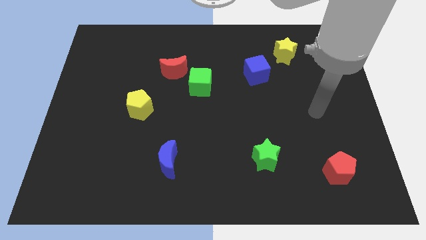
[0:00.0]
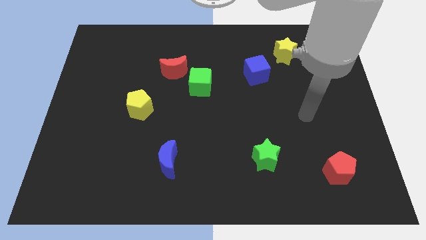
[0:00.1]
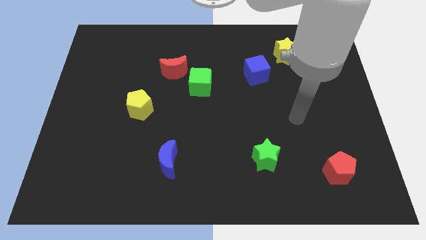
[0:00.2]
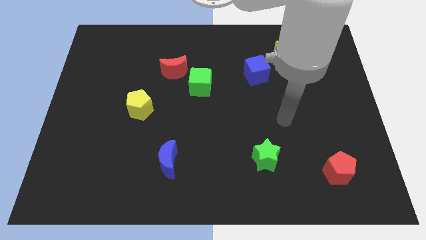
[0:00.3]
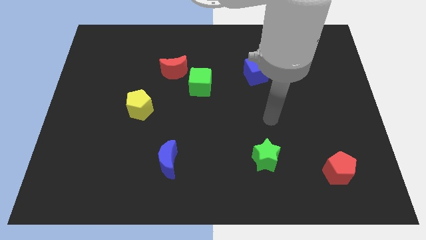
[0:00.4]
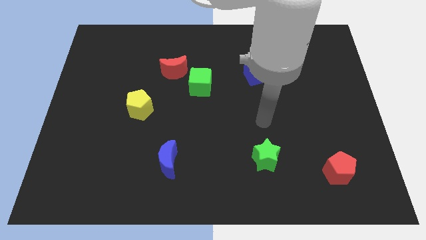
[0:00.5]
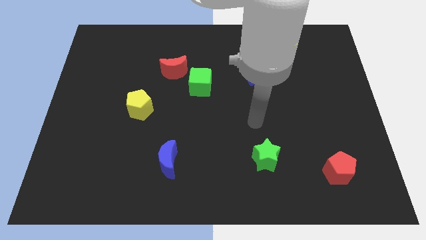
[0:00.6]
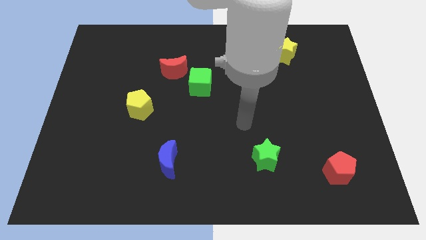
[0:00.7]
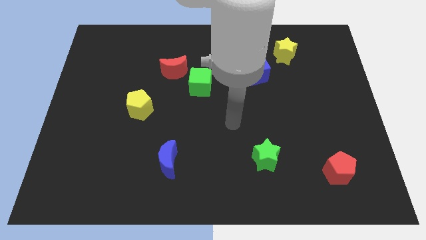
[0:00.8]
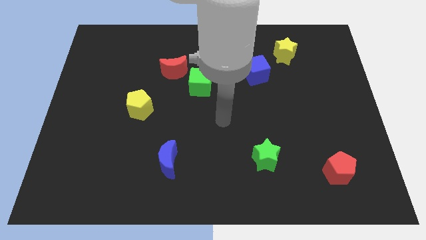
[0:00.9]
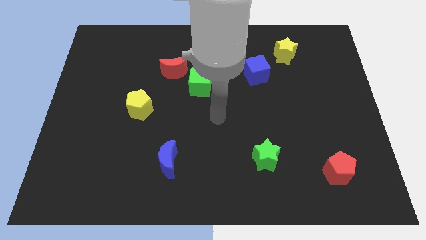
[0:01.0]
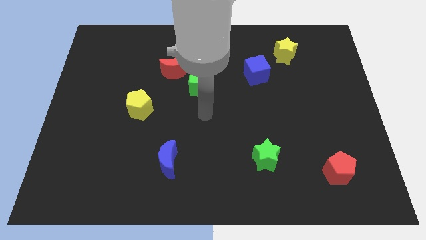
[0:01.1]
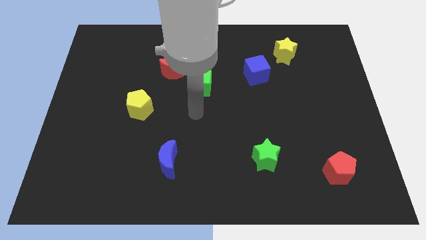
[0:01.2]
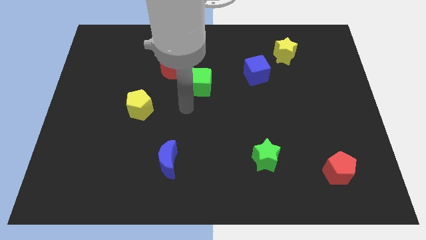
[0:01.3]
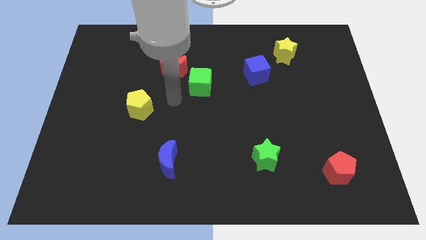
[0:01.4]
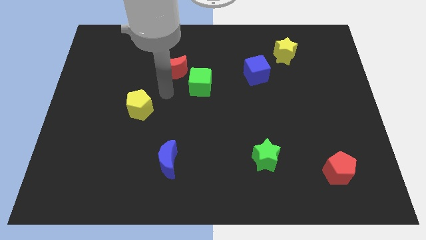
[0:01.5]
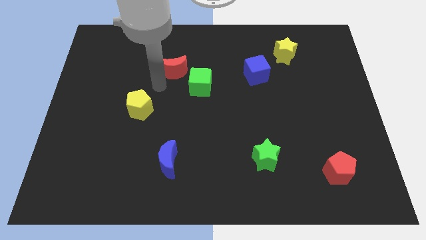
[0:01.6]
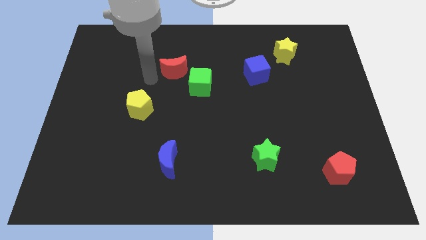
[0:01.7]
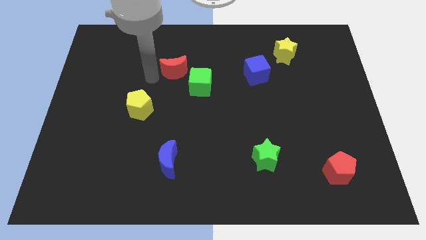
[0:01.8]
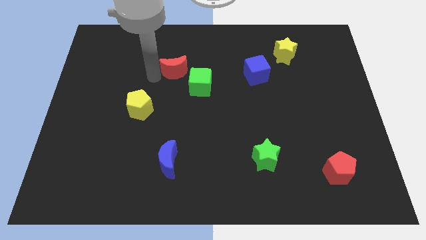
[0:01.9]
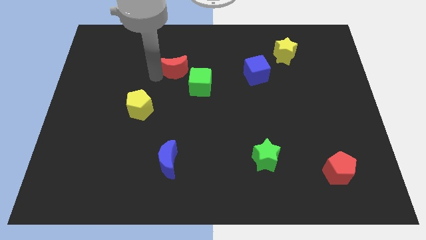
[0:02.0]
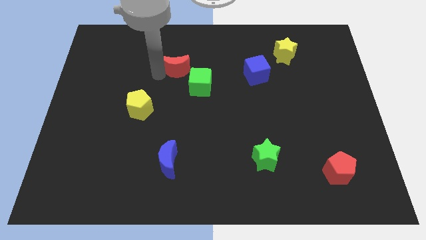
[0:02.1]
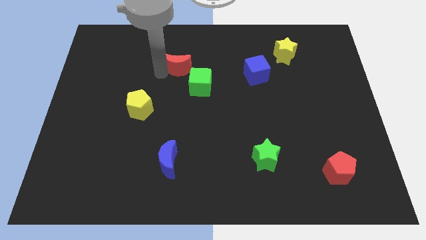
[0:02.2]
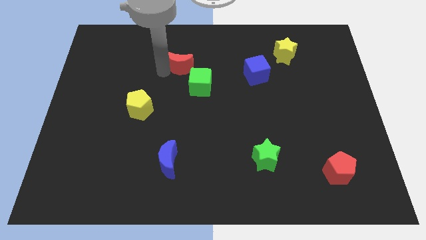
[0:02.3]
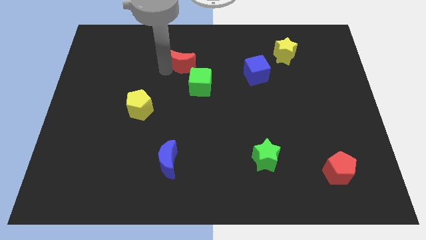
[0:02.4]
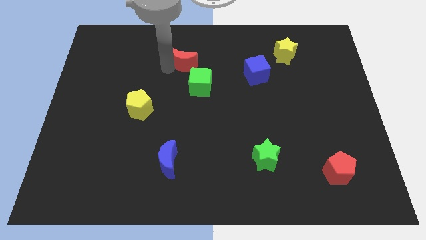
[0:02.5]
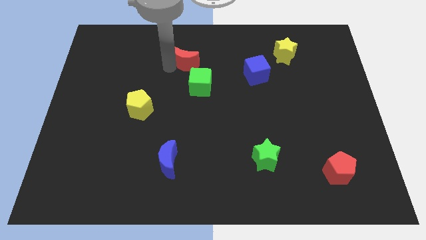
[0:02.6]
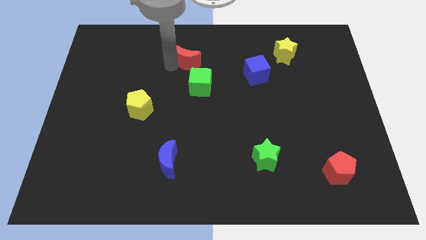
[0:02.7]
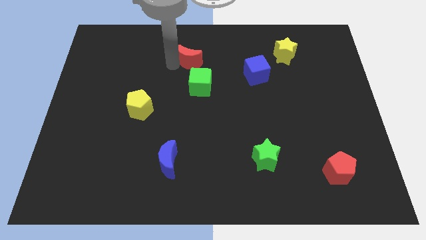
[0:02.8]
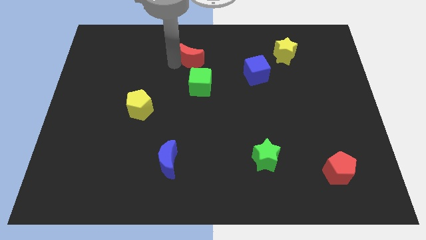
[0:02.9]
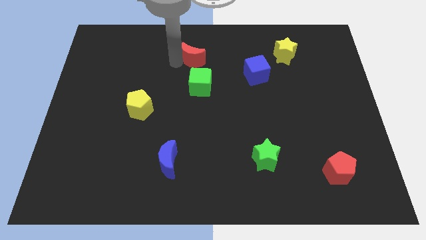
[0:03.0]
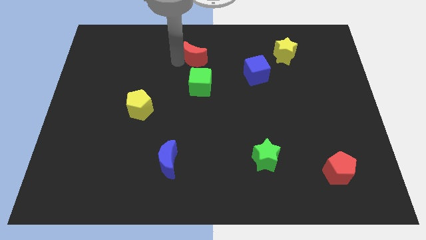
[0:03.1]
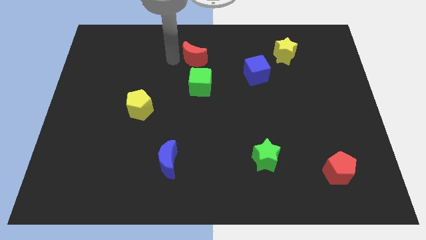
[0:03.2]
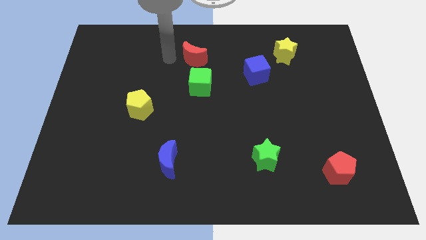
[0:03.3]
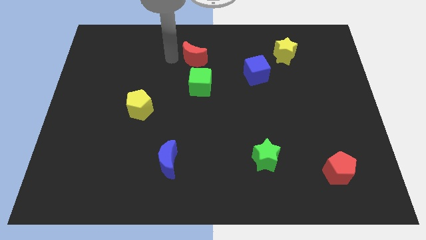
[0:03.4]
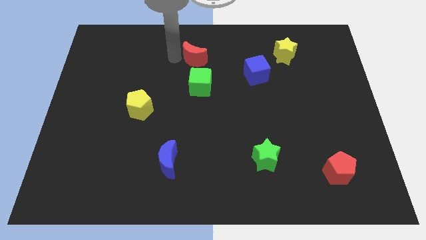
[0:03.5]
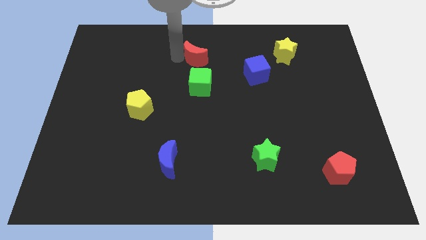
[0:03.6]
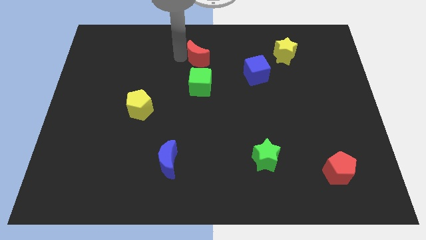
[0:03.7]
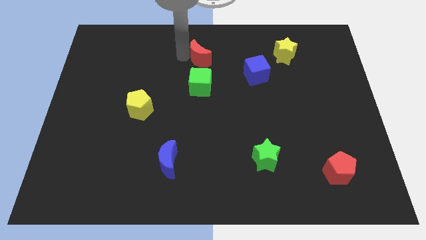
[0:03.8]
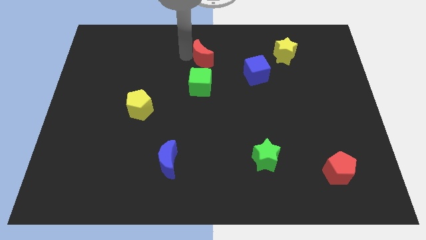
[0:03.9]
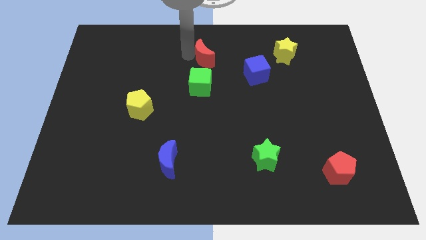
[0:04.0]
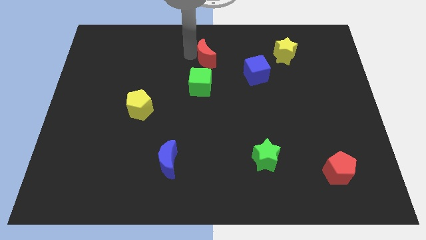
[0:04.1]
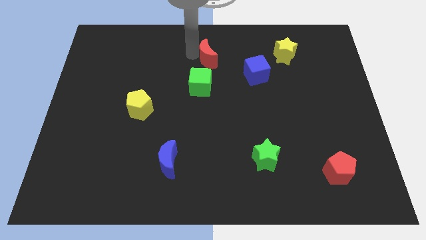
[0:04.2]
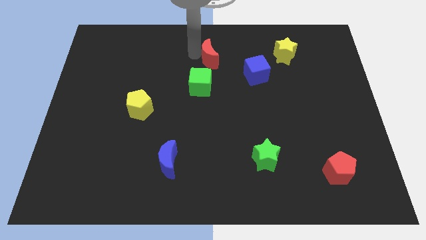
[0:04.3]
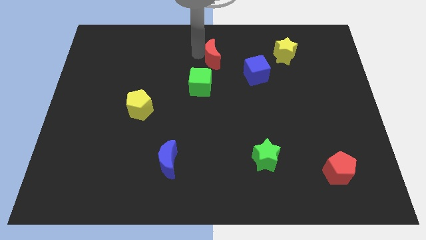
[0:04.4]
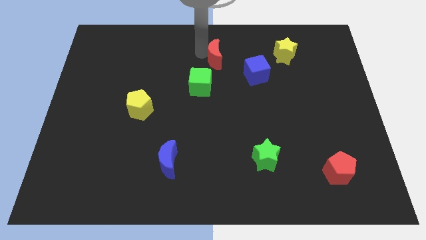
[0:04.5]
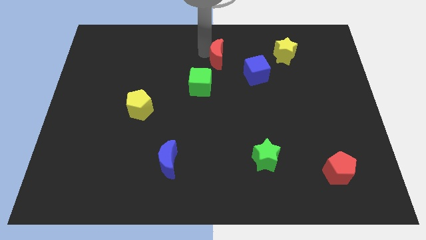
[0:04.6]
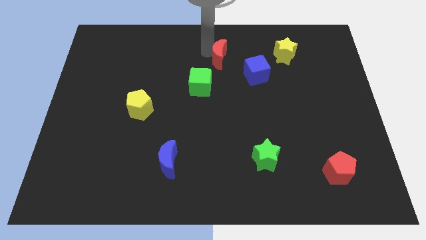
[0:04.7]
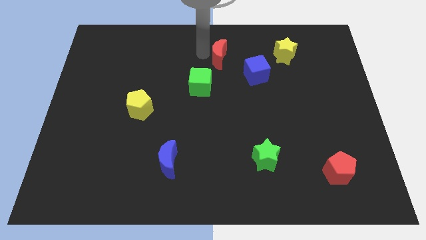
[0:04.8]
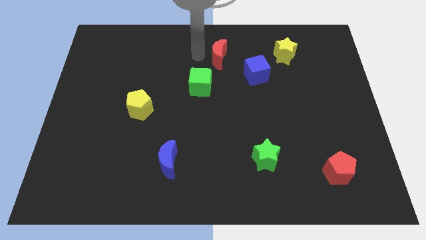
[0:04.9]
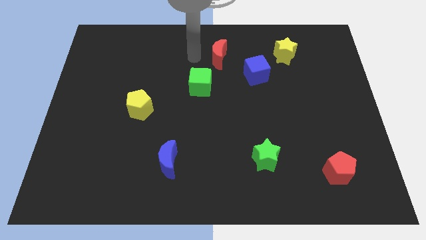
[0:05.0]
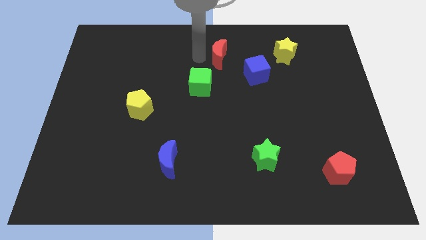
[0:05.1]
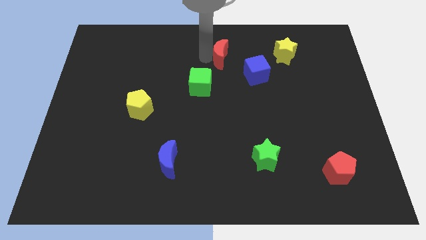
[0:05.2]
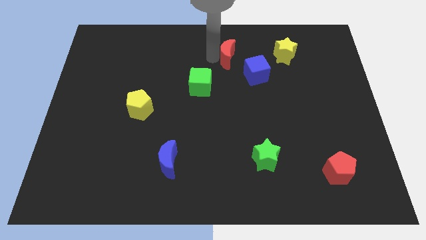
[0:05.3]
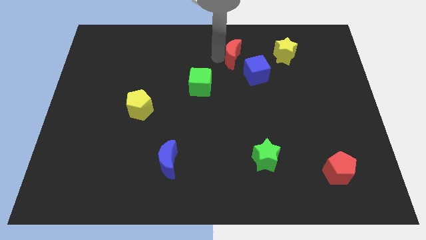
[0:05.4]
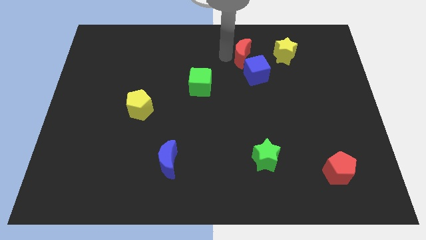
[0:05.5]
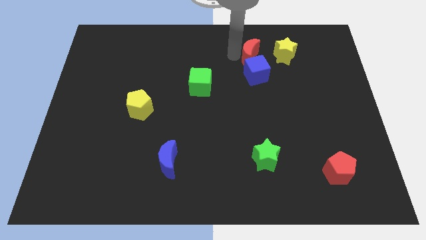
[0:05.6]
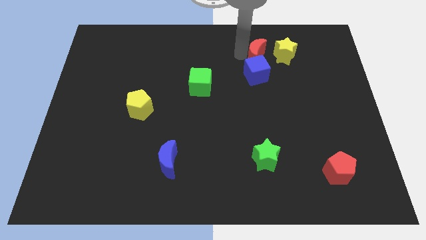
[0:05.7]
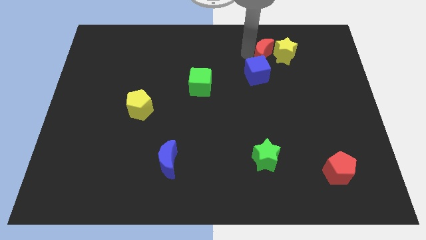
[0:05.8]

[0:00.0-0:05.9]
move the red moon right

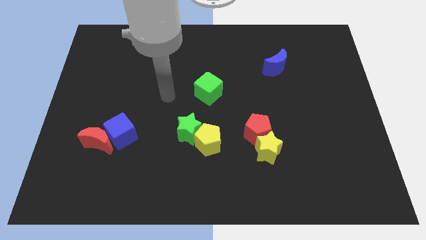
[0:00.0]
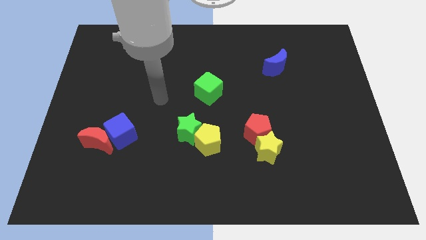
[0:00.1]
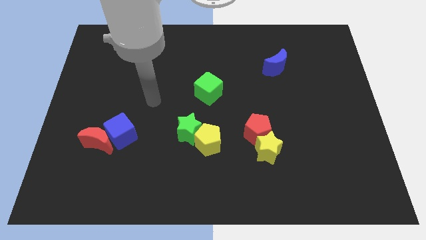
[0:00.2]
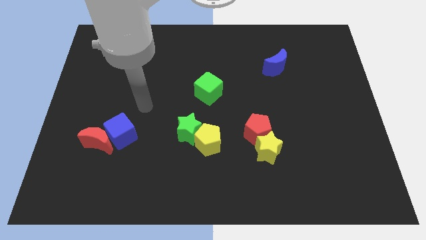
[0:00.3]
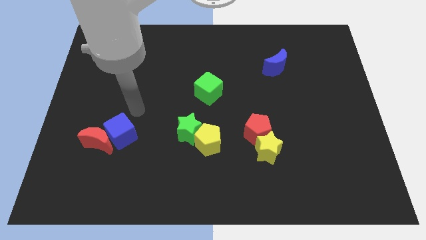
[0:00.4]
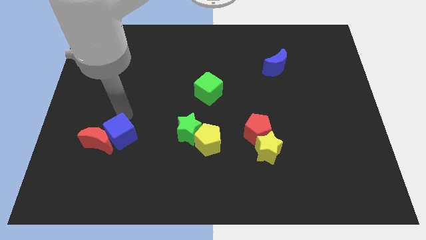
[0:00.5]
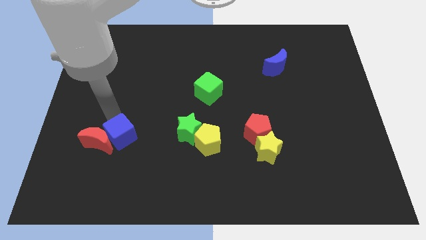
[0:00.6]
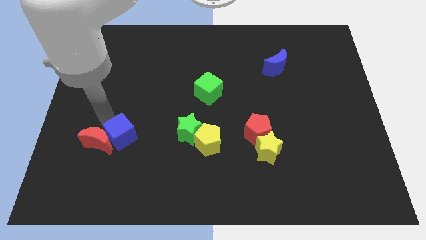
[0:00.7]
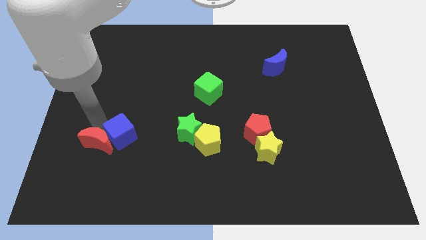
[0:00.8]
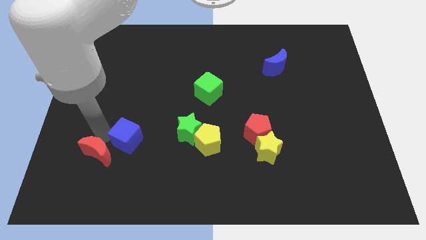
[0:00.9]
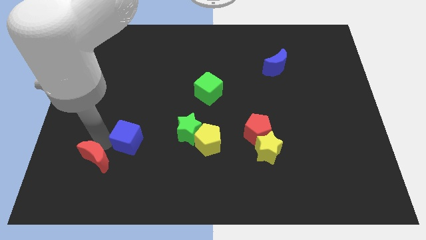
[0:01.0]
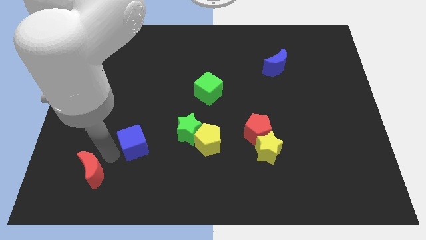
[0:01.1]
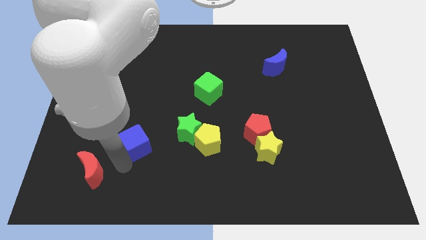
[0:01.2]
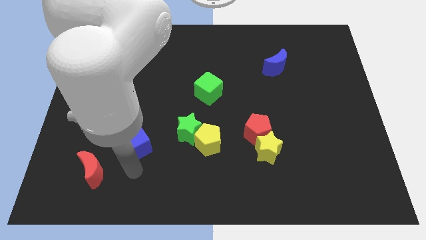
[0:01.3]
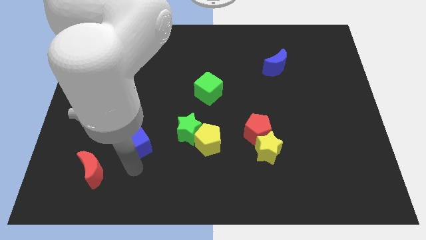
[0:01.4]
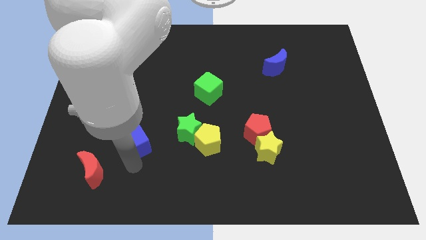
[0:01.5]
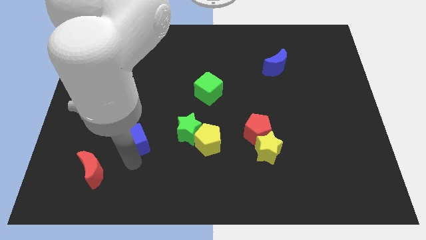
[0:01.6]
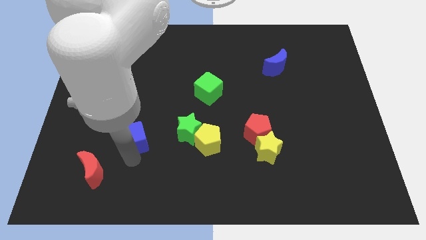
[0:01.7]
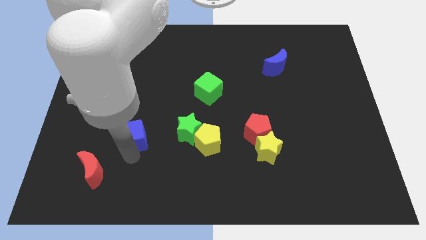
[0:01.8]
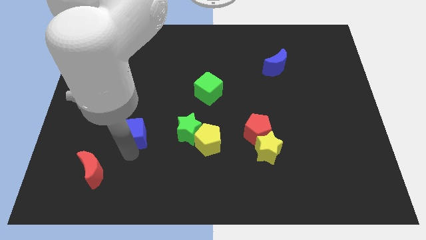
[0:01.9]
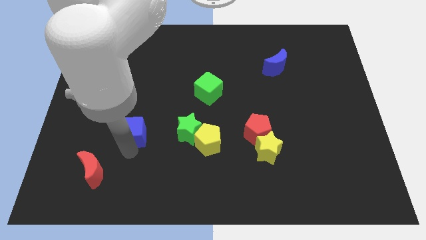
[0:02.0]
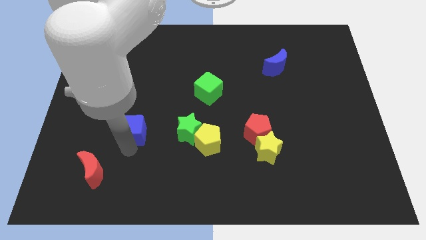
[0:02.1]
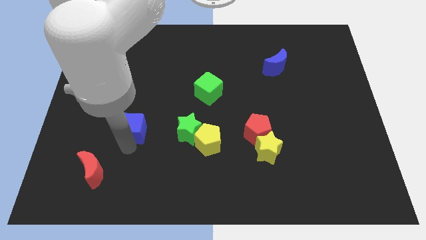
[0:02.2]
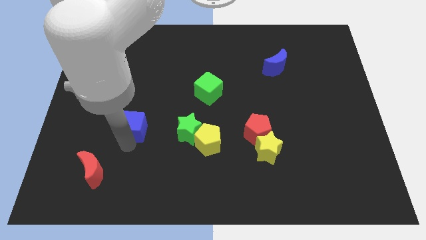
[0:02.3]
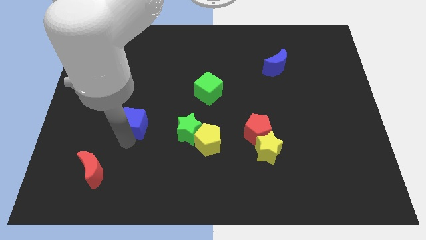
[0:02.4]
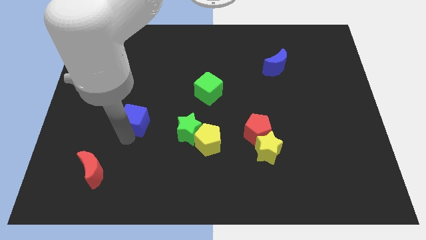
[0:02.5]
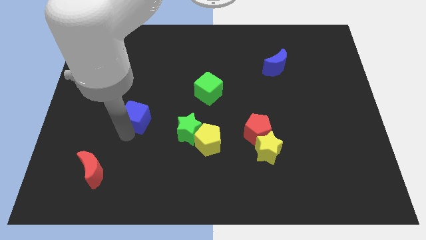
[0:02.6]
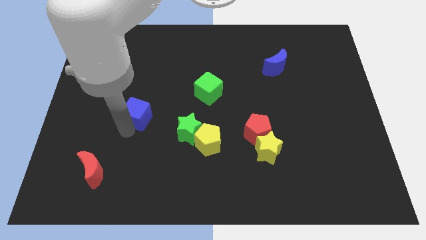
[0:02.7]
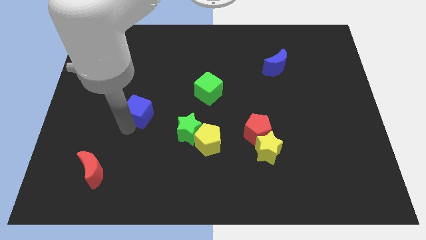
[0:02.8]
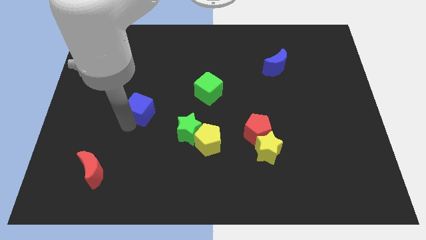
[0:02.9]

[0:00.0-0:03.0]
slide the blue cube upwards and to the right a little bit
